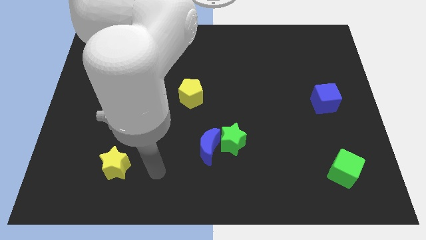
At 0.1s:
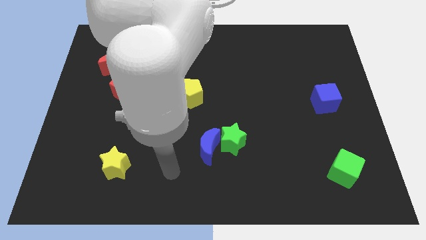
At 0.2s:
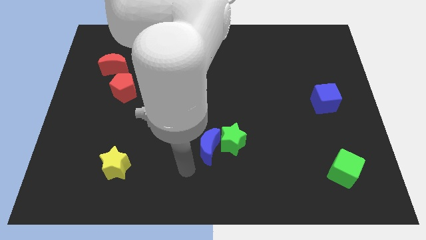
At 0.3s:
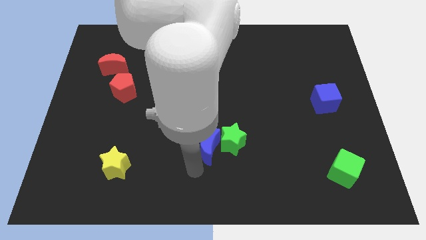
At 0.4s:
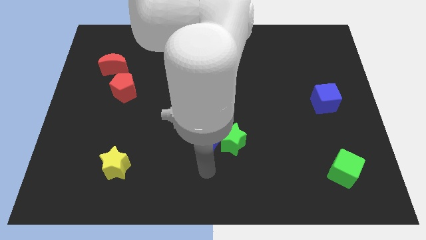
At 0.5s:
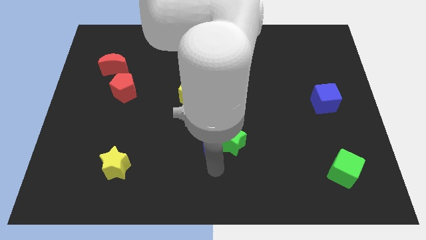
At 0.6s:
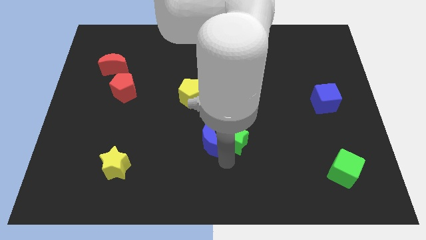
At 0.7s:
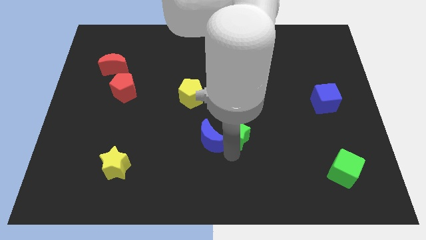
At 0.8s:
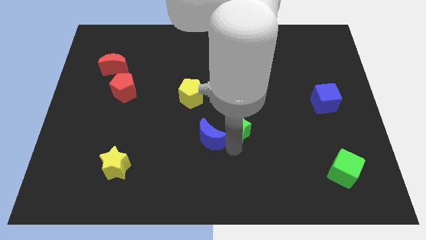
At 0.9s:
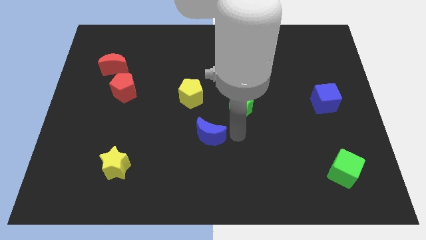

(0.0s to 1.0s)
separate the blue moon from the green star

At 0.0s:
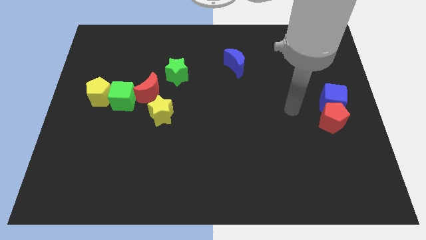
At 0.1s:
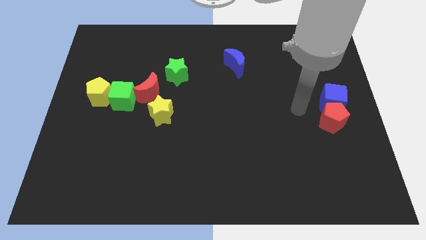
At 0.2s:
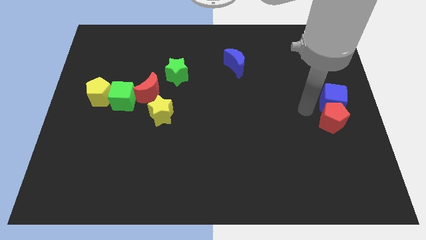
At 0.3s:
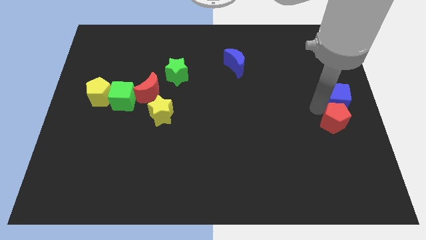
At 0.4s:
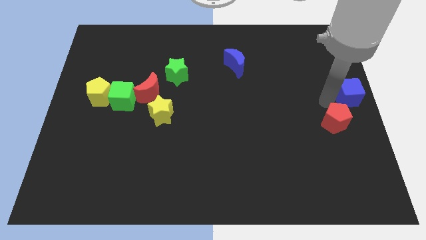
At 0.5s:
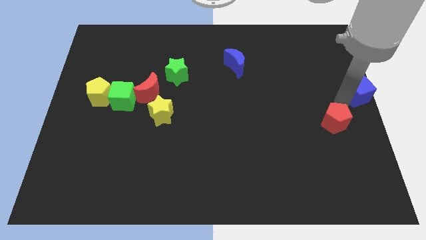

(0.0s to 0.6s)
move the red pentagon away from the blue cube

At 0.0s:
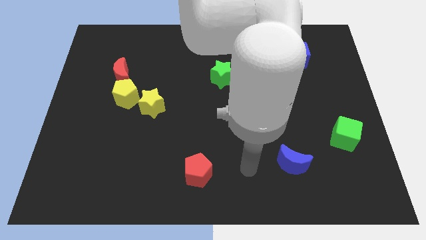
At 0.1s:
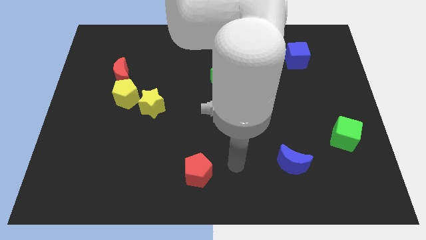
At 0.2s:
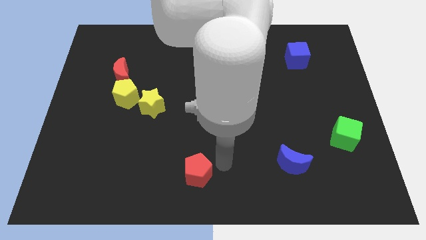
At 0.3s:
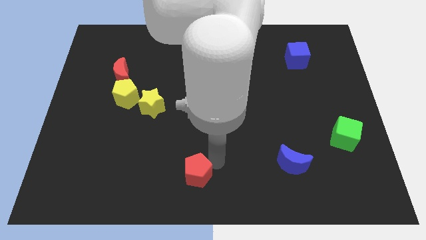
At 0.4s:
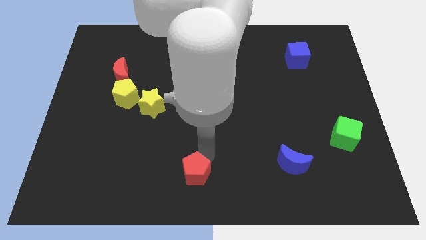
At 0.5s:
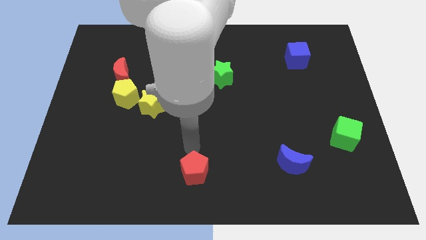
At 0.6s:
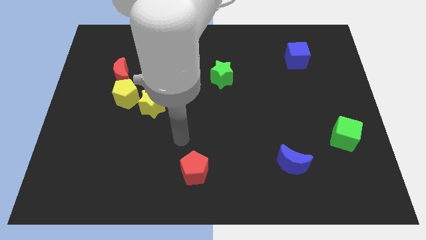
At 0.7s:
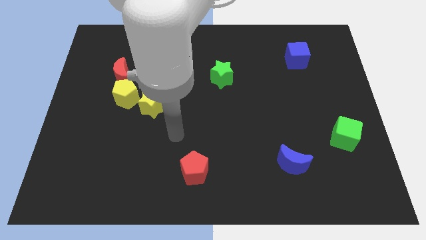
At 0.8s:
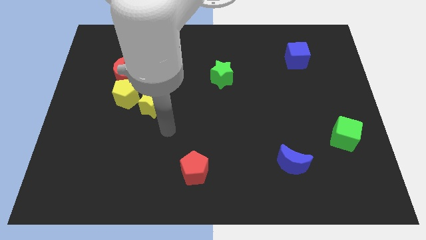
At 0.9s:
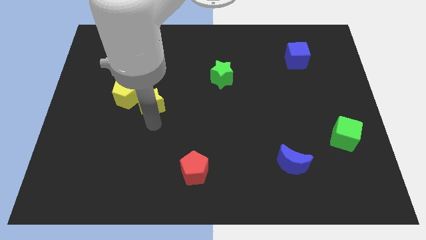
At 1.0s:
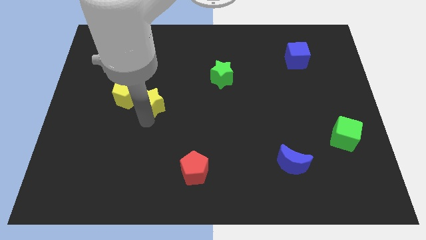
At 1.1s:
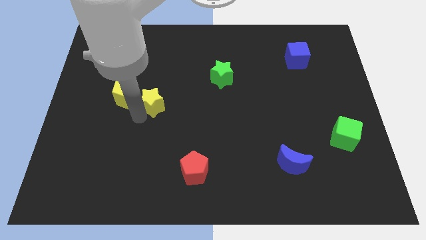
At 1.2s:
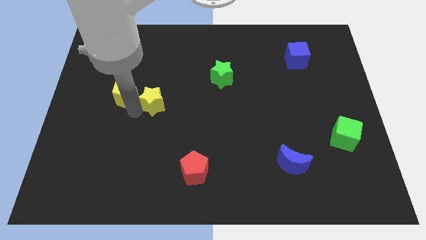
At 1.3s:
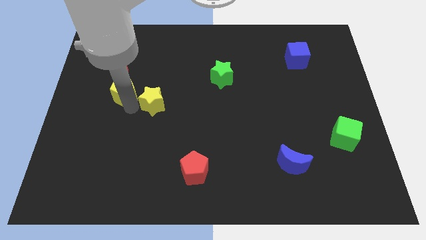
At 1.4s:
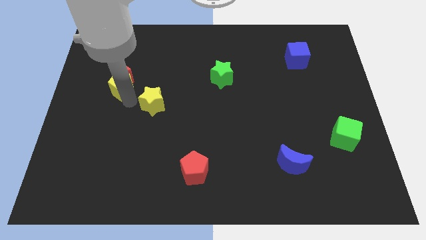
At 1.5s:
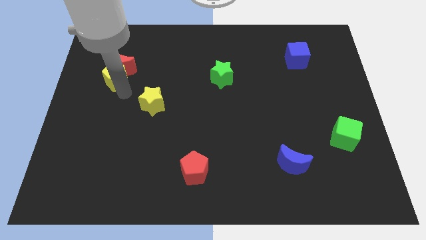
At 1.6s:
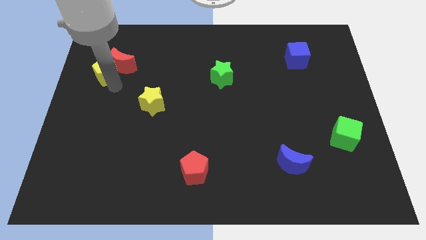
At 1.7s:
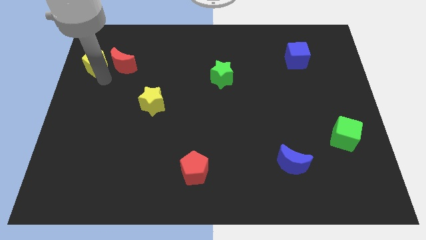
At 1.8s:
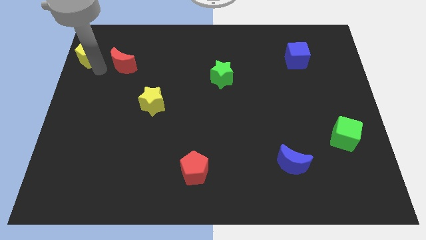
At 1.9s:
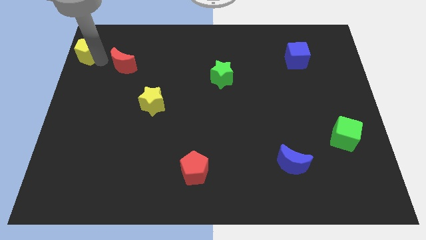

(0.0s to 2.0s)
move the red moon away from the yellow pentagon

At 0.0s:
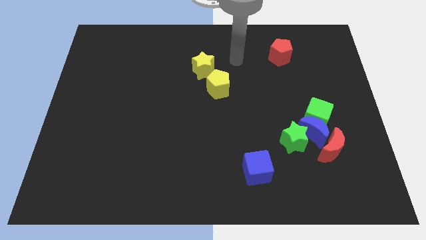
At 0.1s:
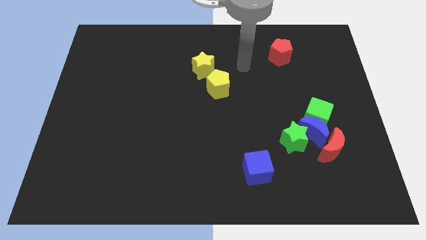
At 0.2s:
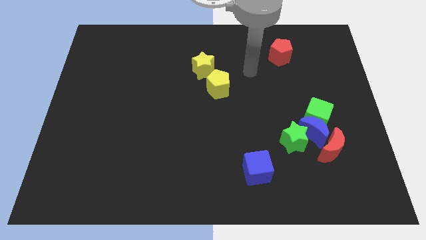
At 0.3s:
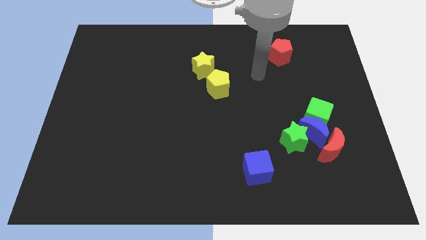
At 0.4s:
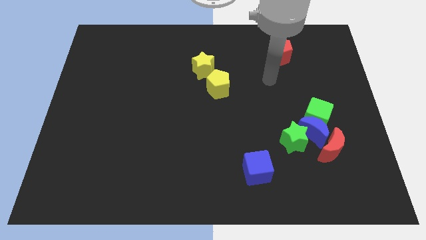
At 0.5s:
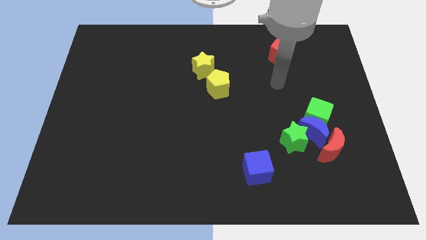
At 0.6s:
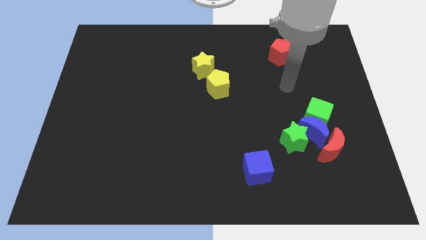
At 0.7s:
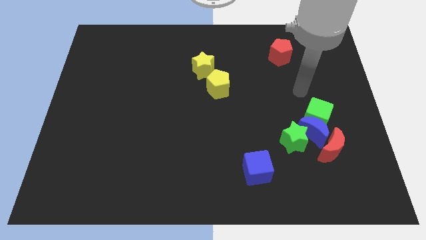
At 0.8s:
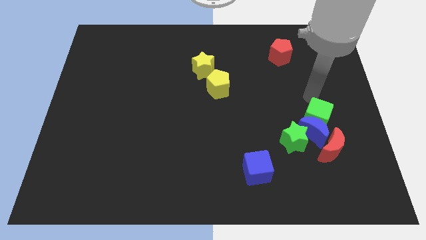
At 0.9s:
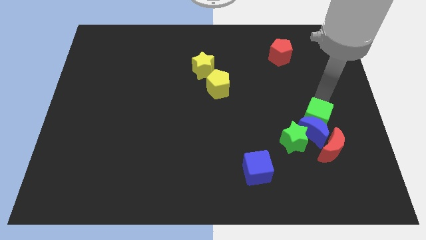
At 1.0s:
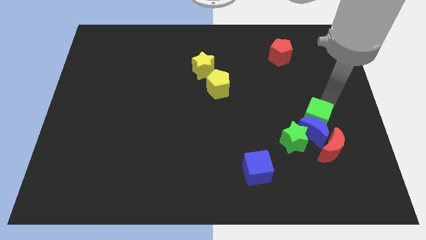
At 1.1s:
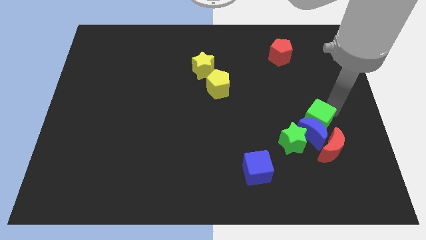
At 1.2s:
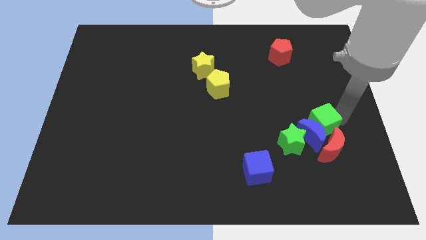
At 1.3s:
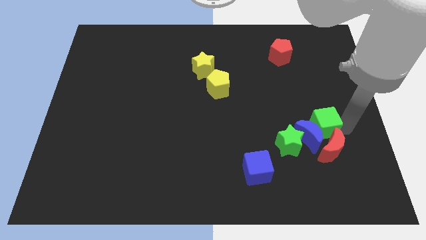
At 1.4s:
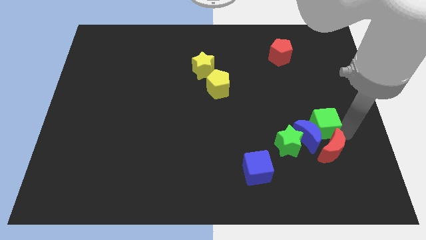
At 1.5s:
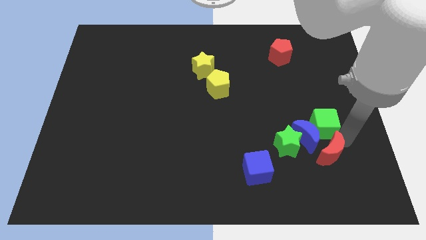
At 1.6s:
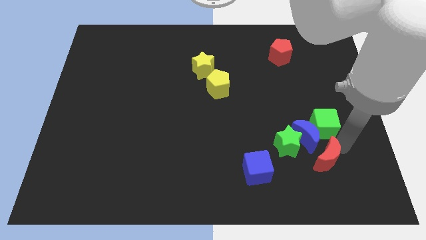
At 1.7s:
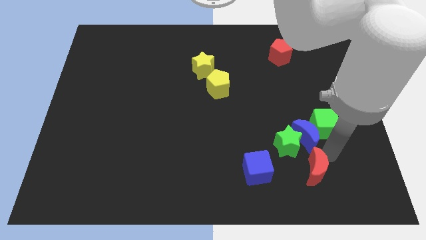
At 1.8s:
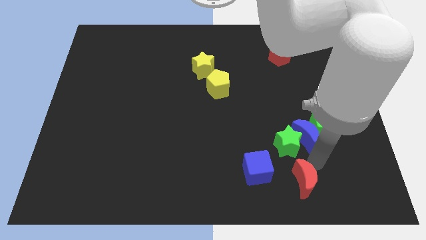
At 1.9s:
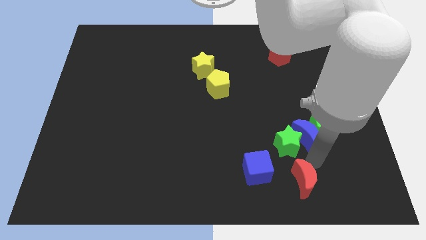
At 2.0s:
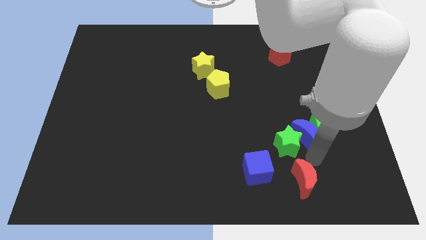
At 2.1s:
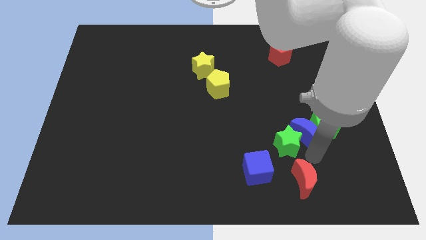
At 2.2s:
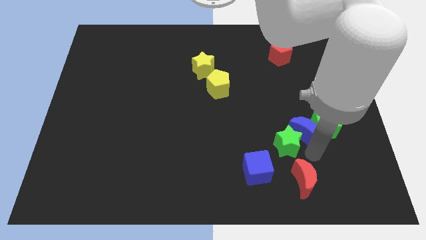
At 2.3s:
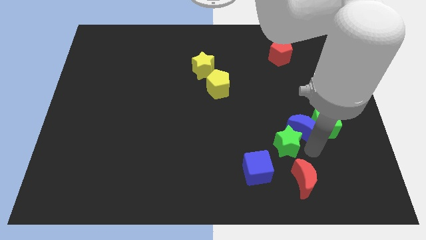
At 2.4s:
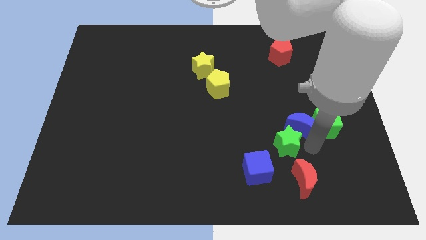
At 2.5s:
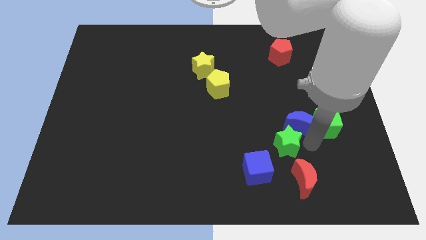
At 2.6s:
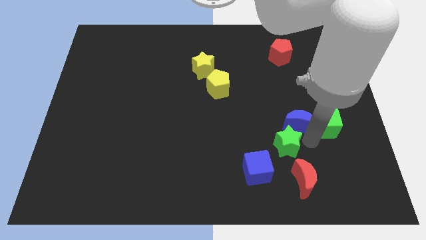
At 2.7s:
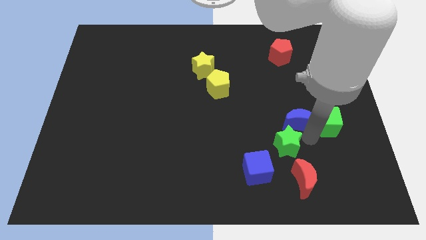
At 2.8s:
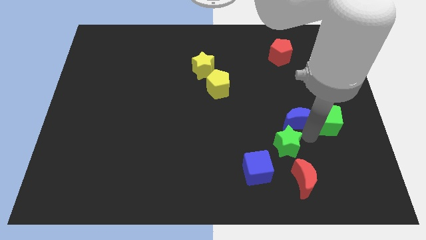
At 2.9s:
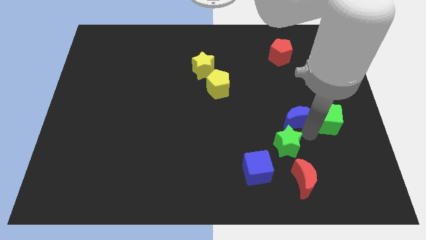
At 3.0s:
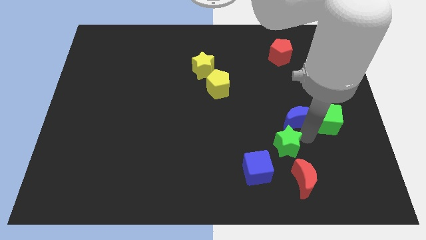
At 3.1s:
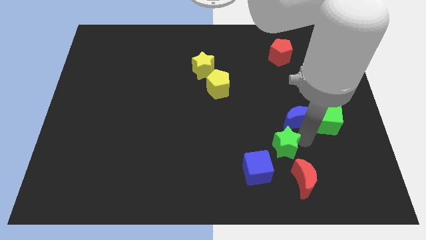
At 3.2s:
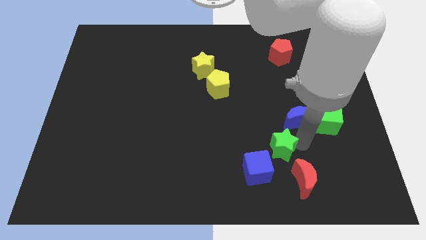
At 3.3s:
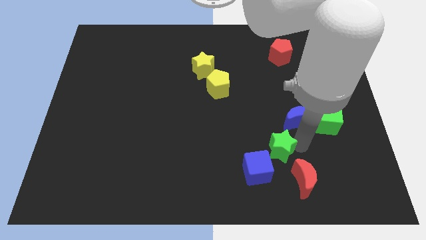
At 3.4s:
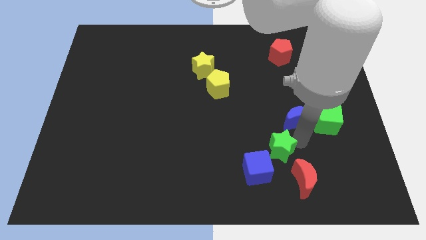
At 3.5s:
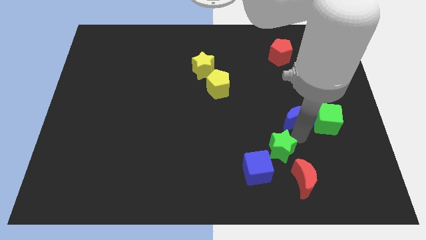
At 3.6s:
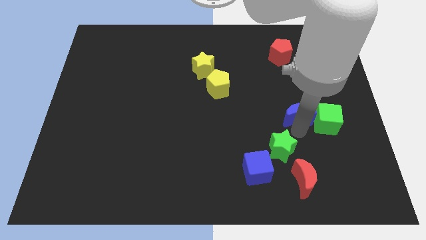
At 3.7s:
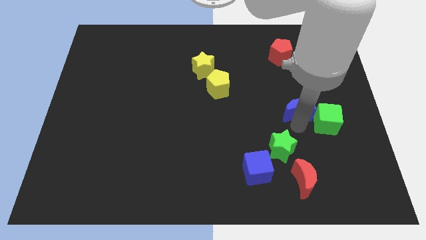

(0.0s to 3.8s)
move the blue moon away from the group of blocks

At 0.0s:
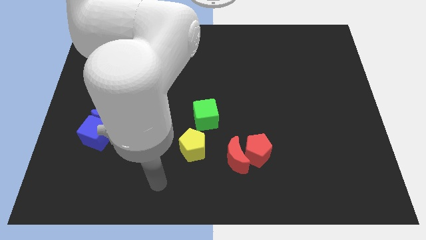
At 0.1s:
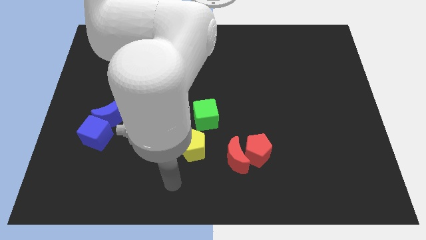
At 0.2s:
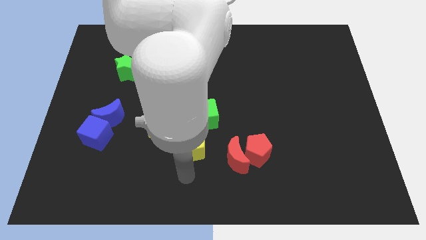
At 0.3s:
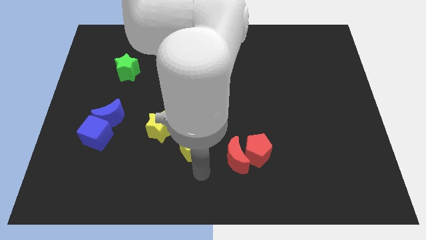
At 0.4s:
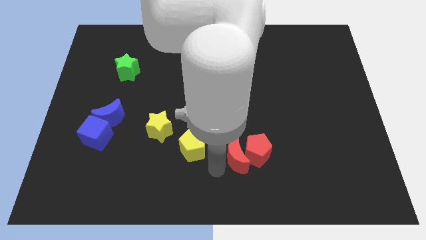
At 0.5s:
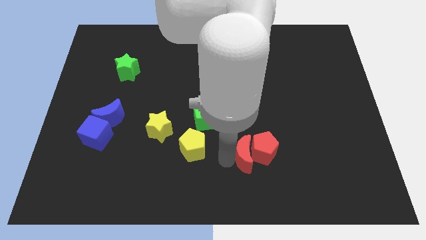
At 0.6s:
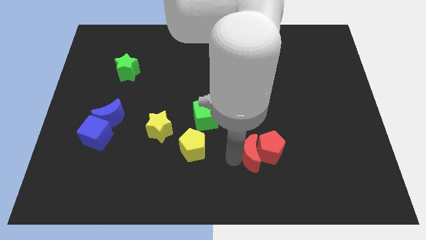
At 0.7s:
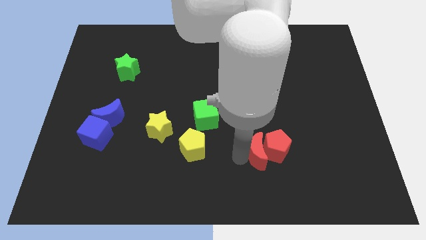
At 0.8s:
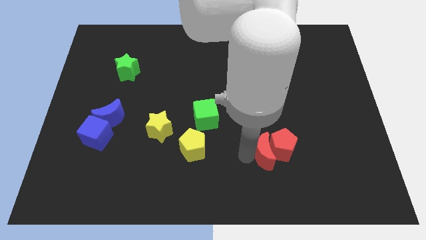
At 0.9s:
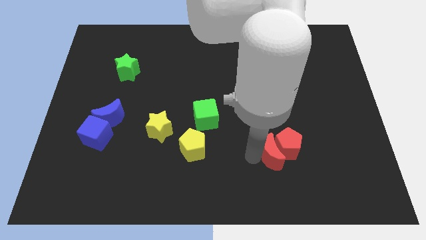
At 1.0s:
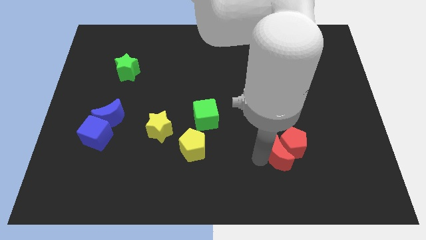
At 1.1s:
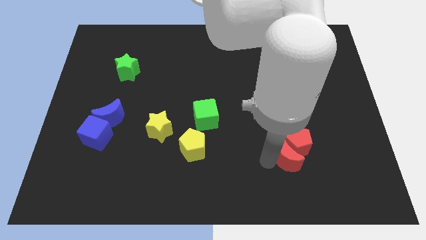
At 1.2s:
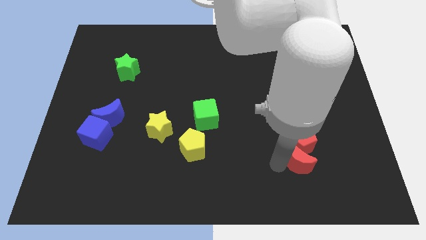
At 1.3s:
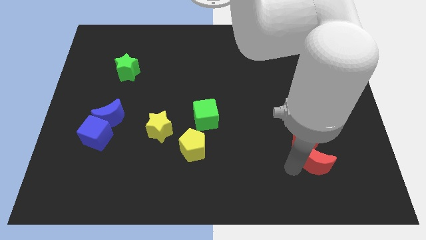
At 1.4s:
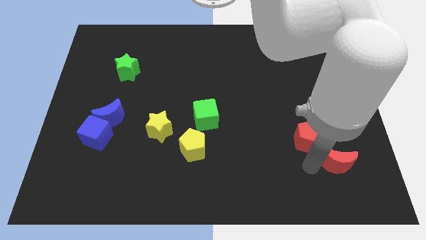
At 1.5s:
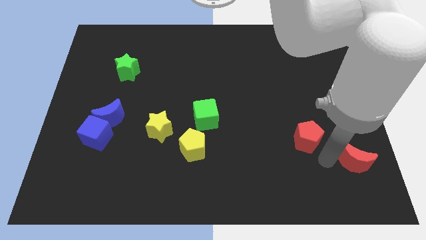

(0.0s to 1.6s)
move the red pentagon away from the red moon

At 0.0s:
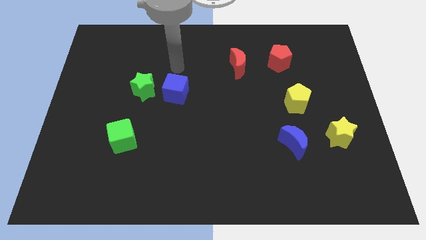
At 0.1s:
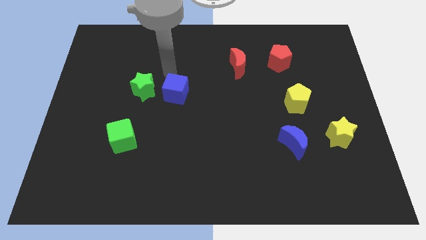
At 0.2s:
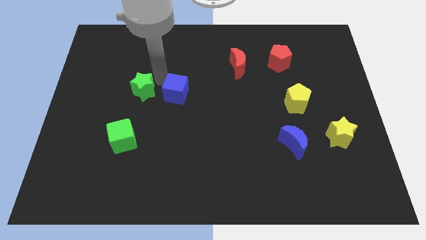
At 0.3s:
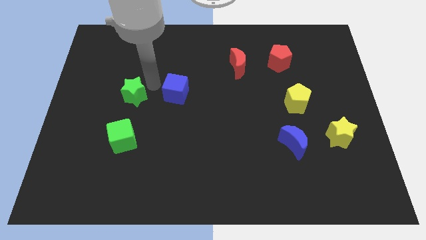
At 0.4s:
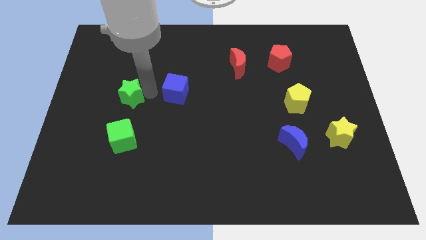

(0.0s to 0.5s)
move the blue cube away from the green star
